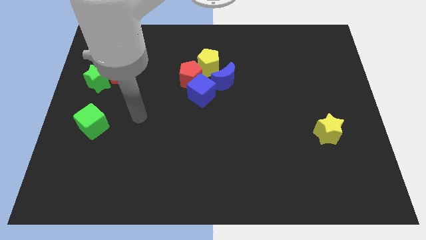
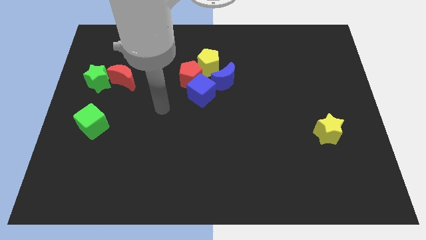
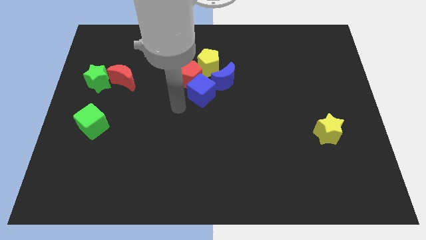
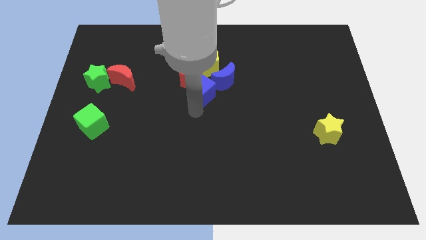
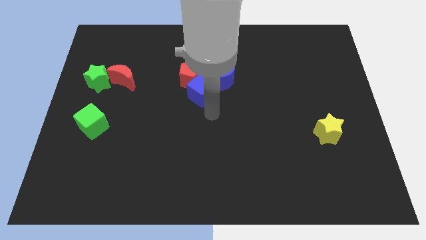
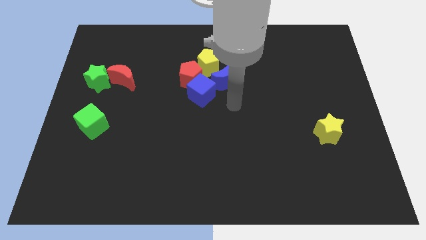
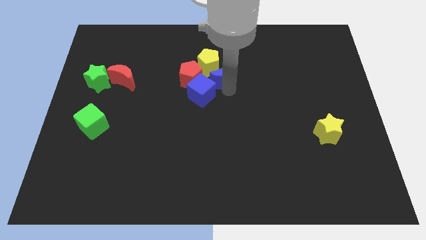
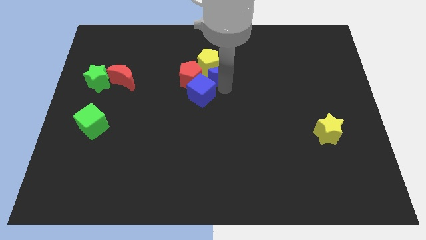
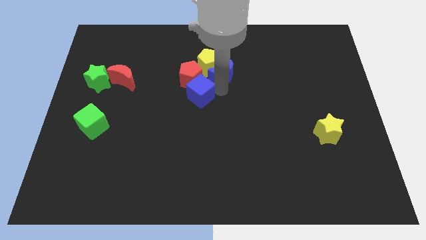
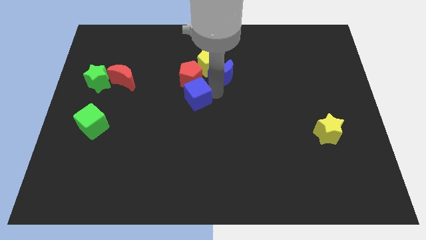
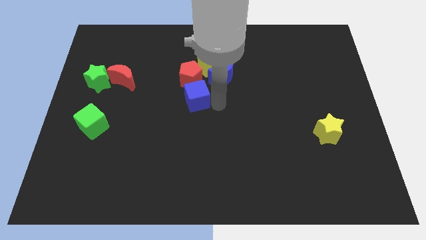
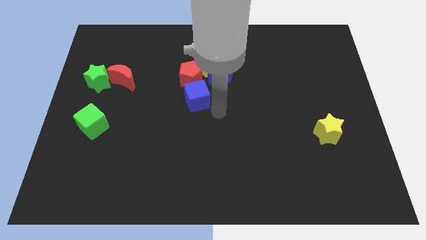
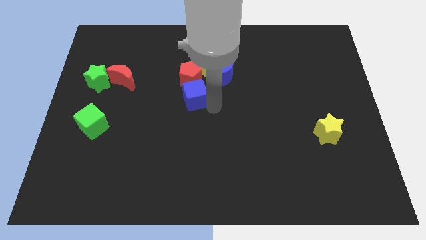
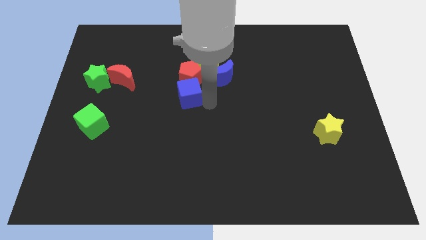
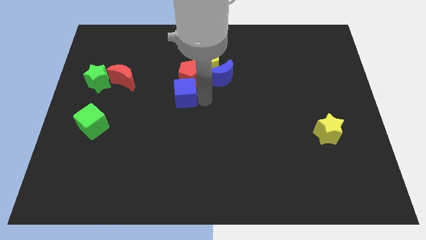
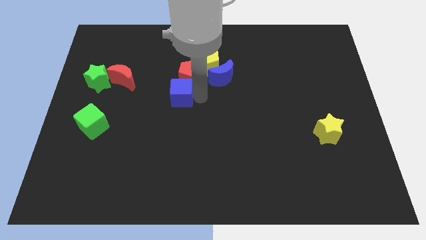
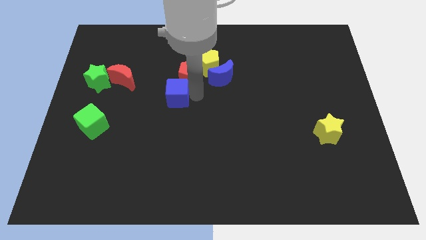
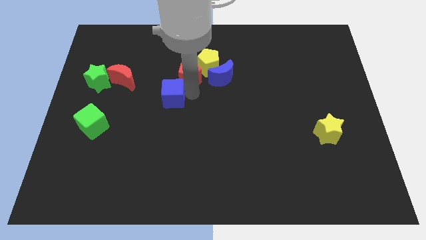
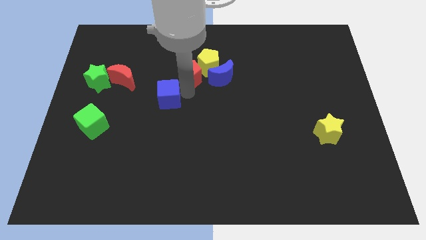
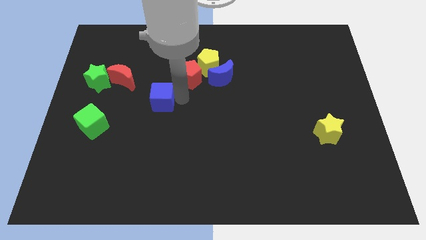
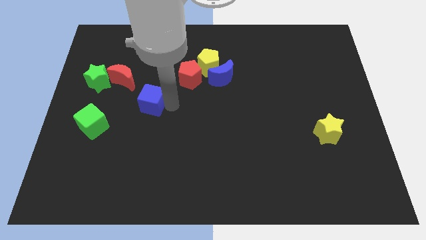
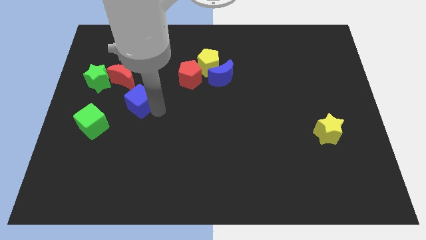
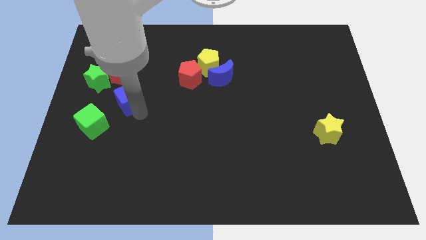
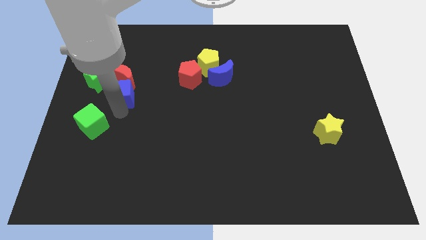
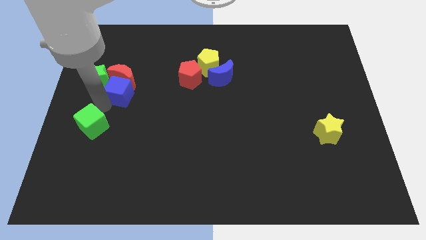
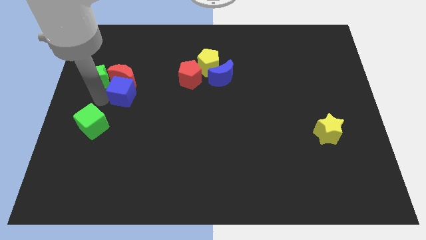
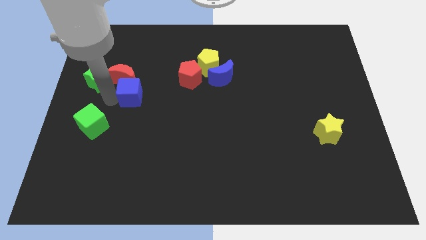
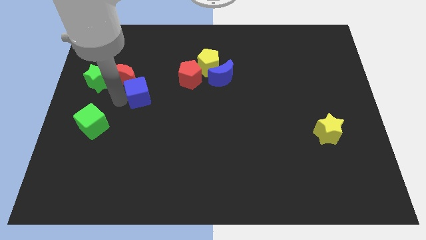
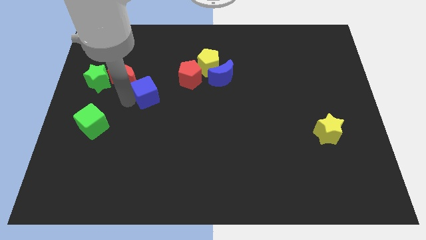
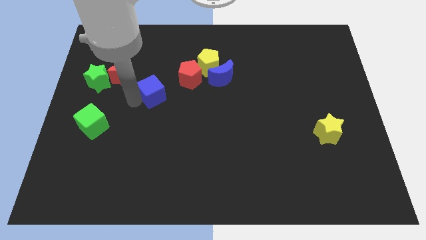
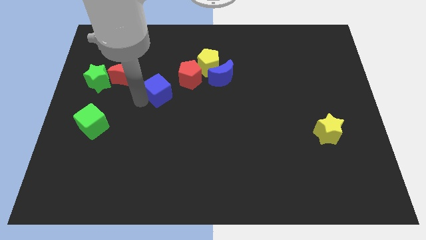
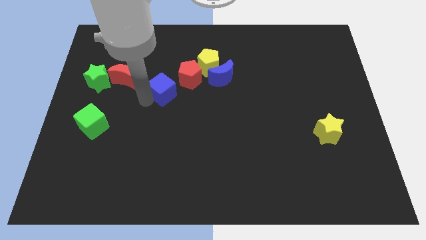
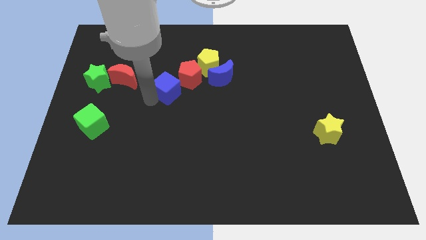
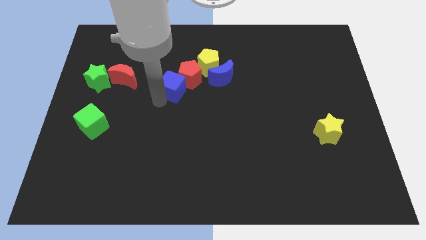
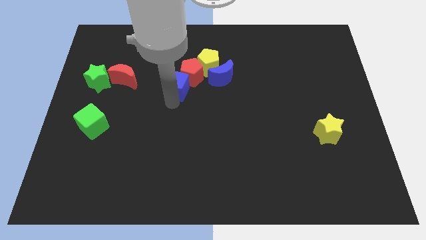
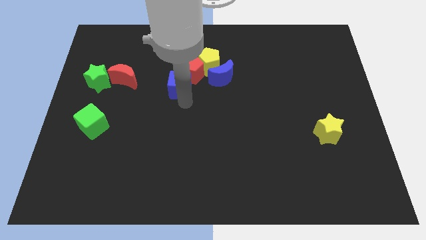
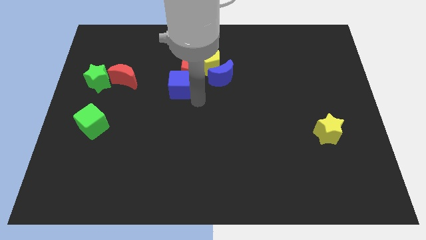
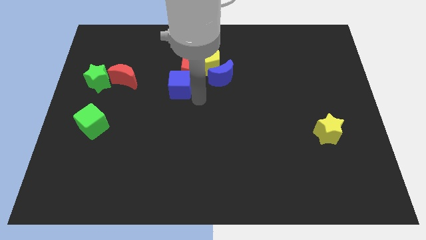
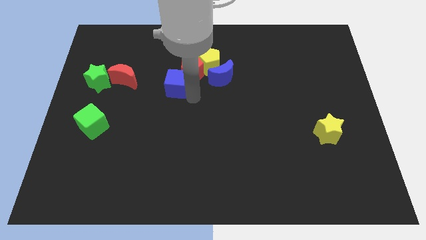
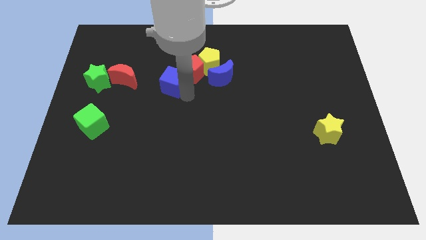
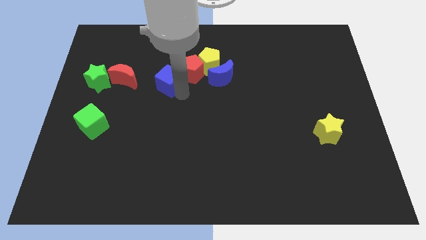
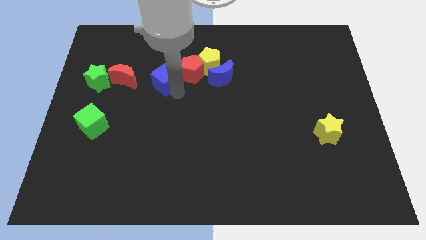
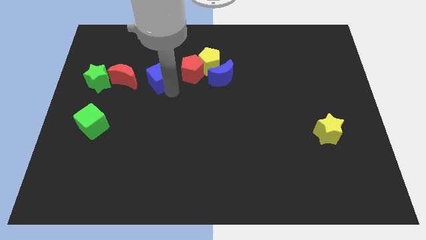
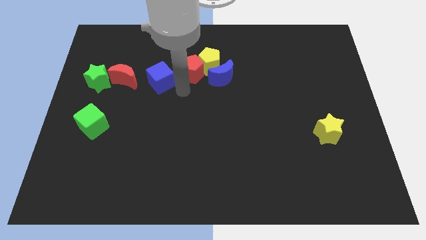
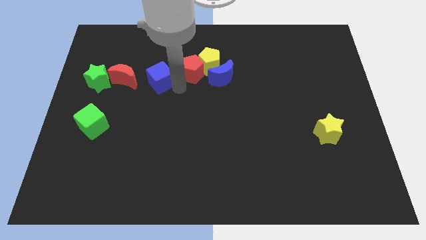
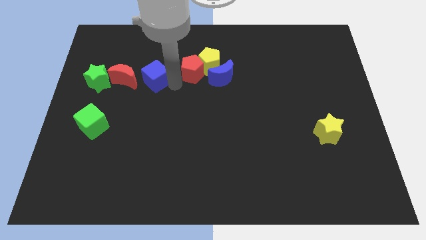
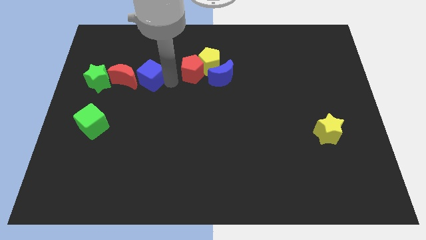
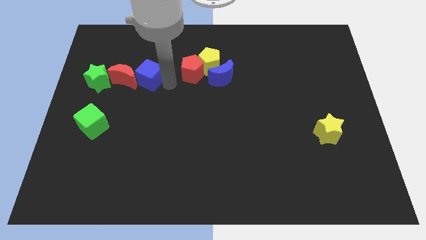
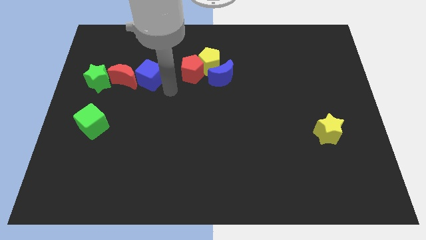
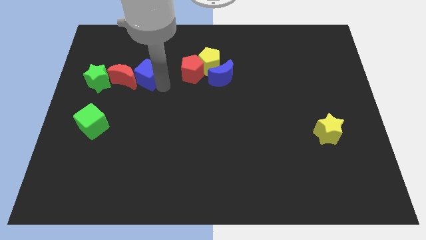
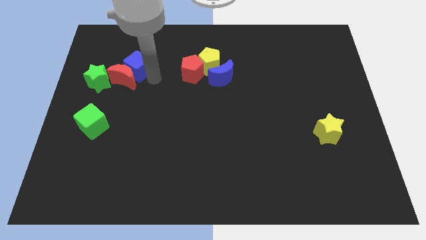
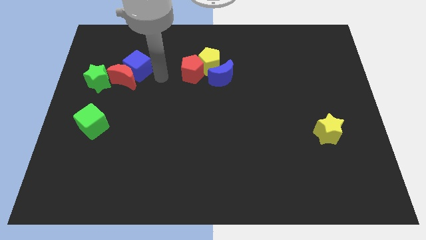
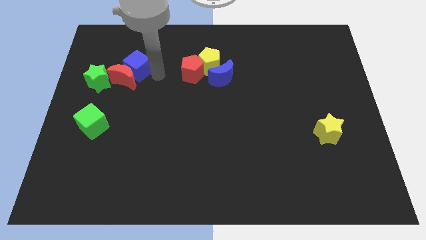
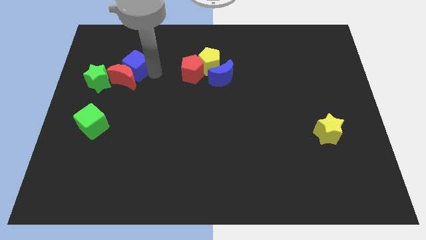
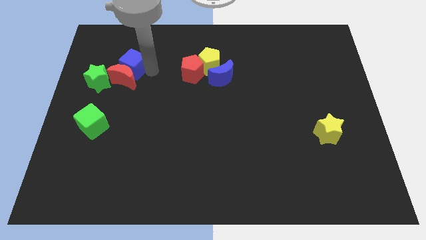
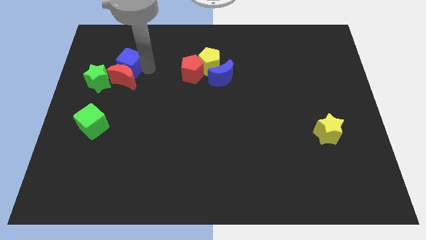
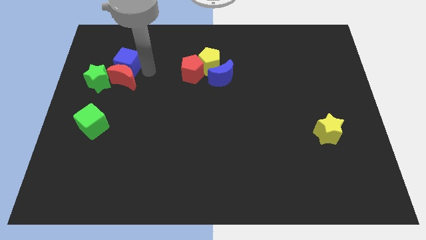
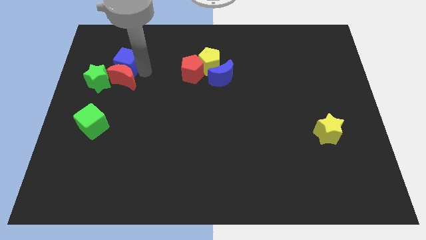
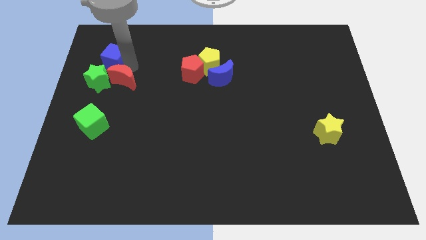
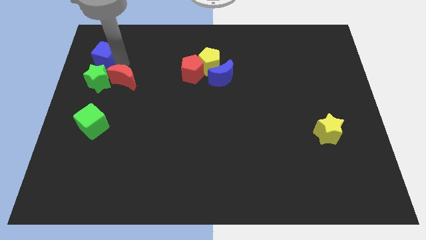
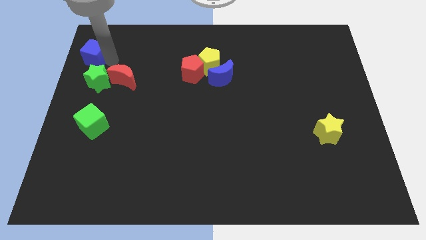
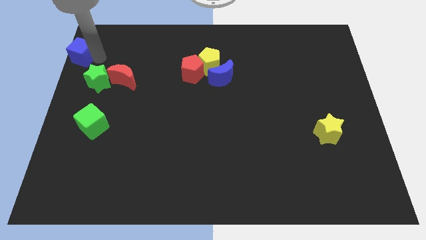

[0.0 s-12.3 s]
put the blue cube to the top left

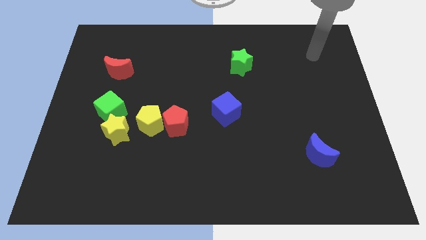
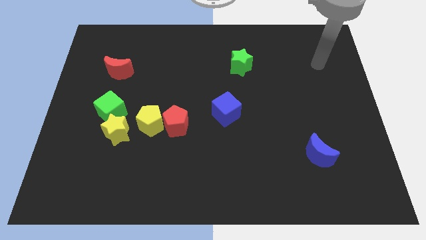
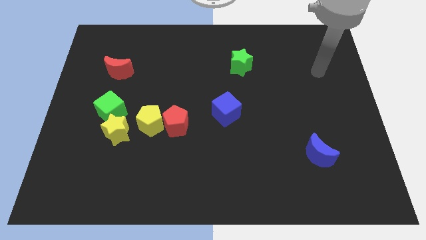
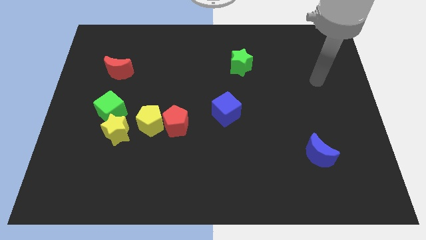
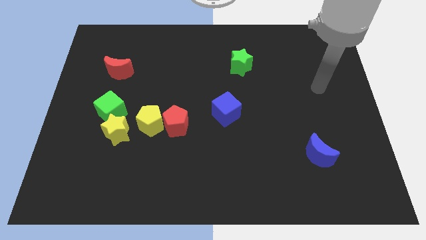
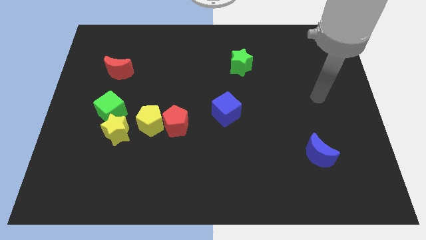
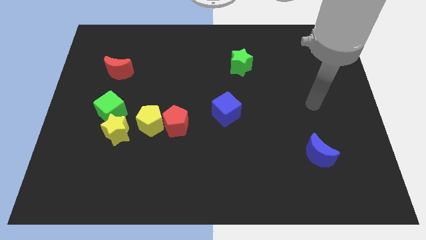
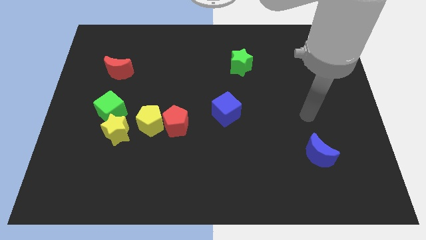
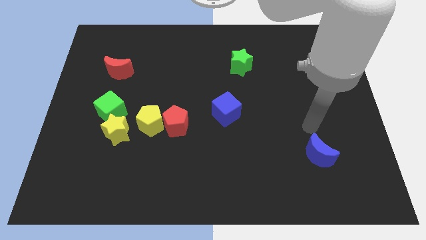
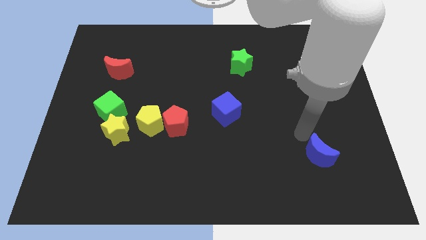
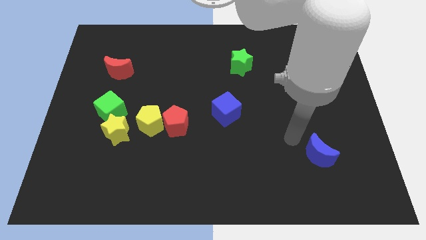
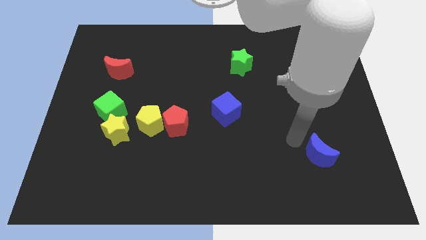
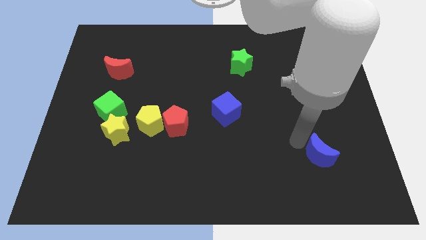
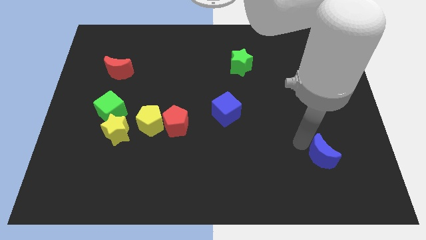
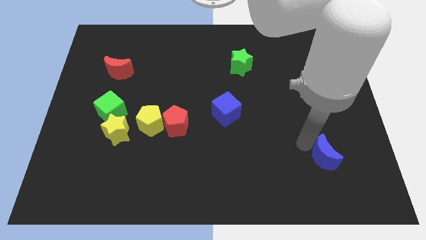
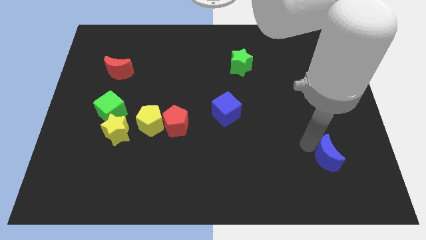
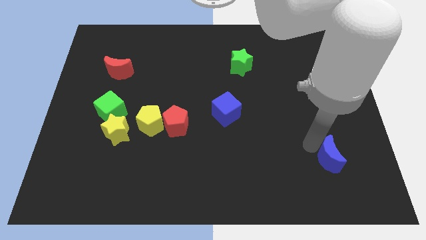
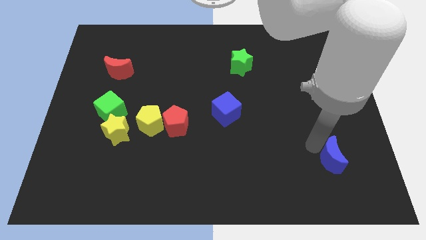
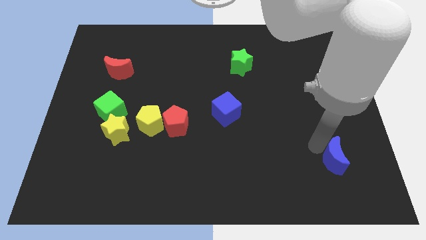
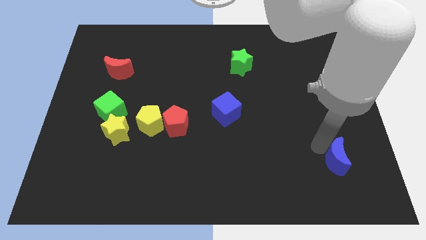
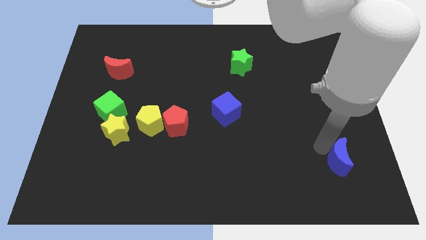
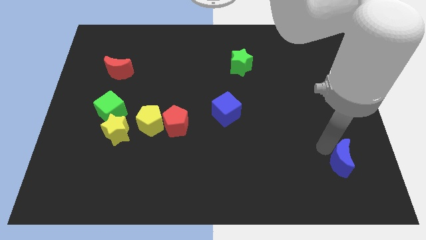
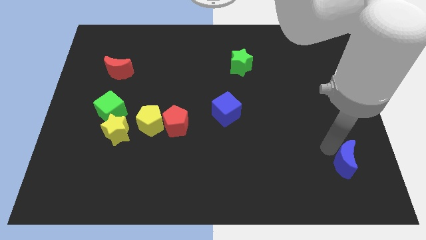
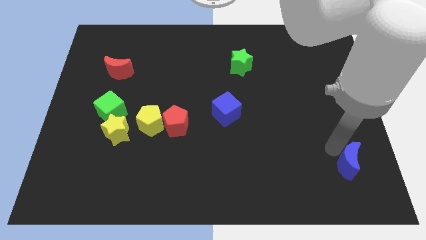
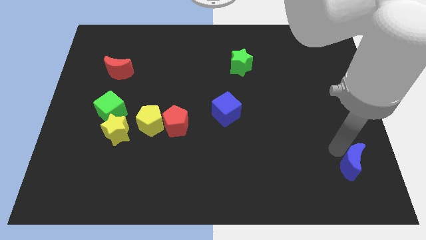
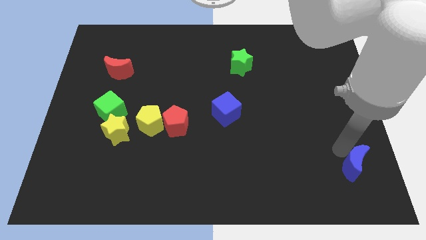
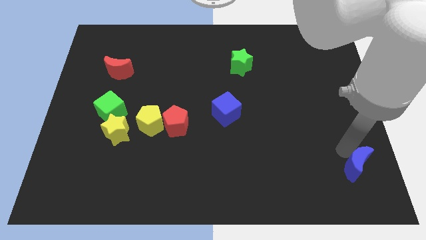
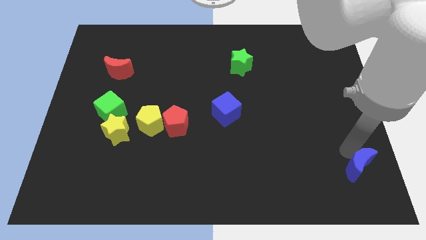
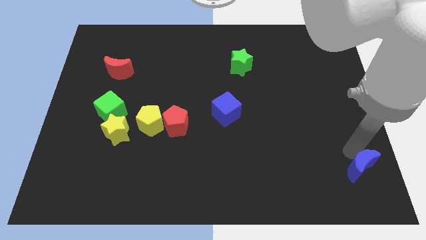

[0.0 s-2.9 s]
put the blue moon to the bottom right
